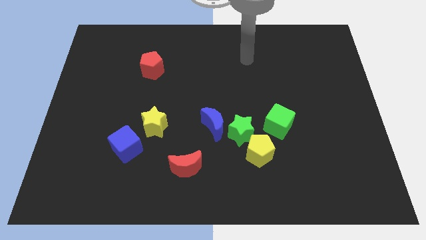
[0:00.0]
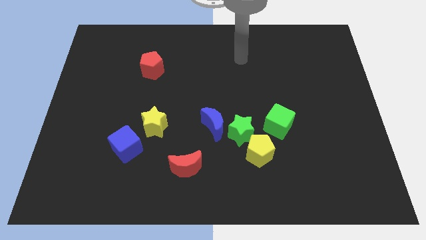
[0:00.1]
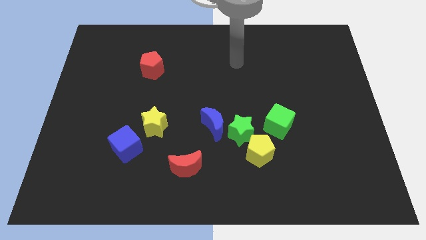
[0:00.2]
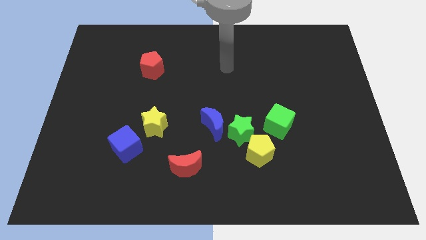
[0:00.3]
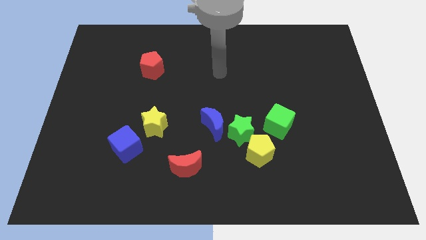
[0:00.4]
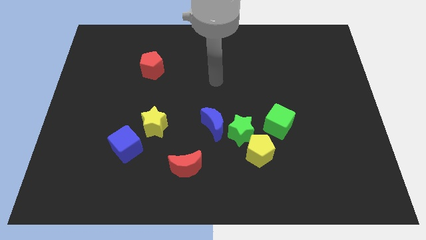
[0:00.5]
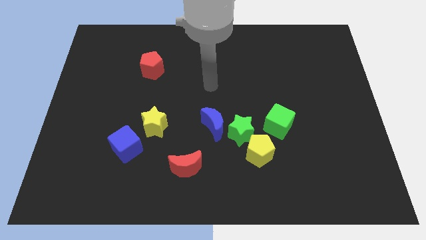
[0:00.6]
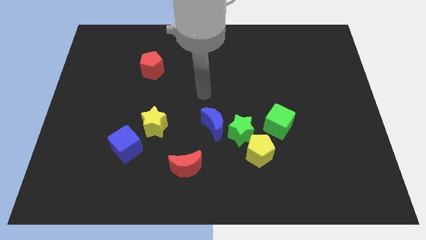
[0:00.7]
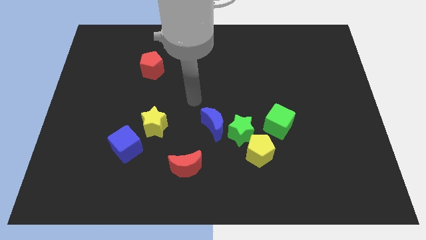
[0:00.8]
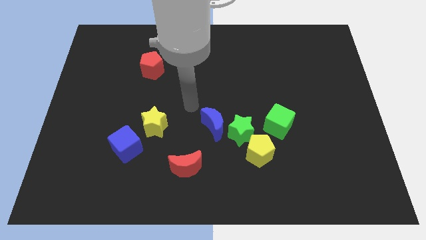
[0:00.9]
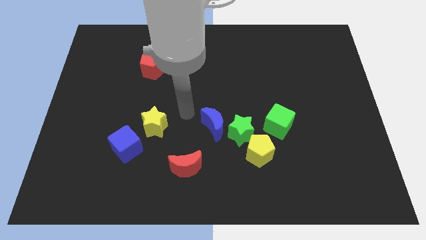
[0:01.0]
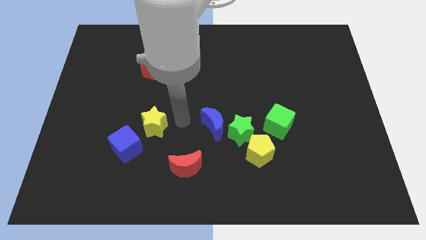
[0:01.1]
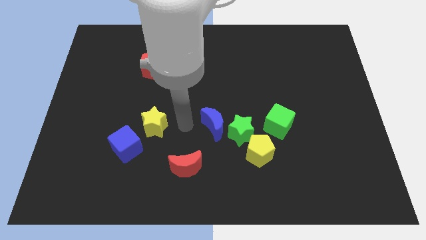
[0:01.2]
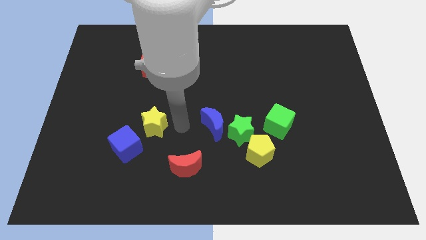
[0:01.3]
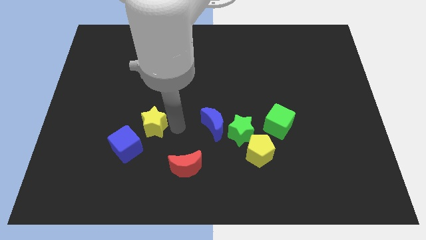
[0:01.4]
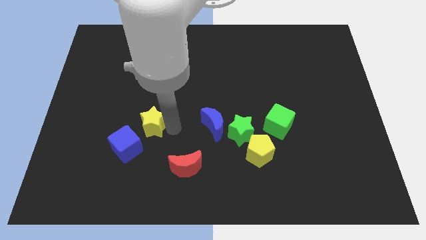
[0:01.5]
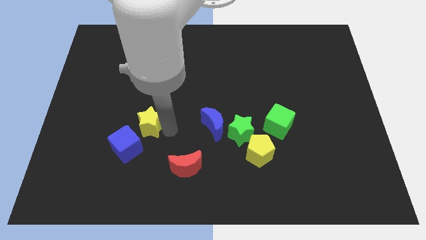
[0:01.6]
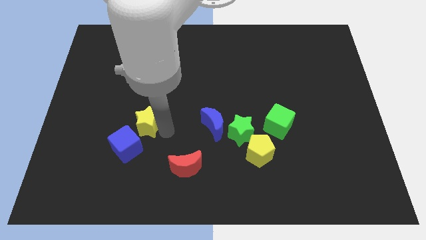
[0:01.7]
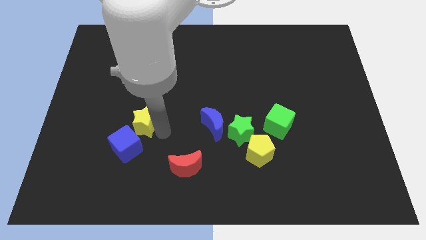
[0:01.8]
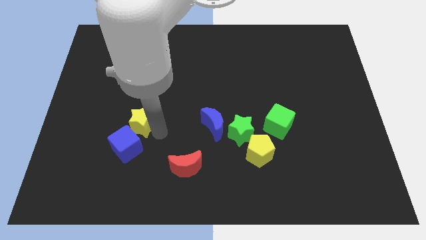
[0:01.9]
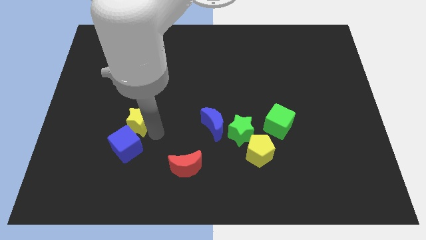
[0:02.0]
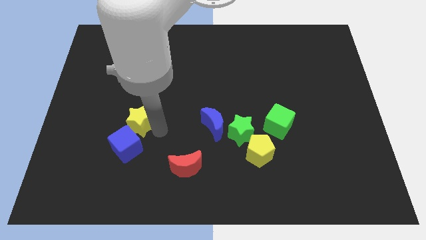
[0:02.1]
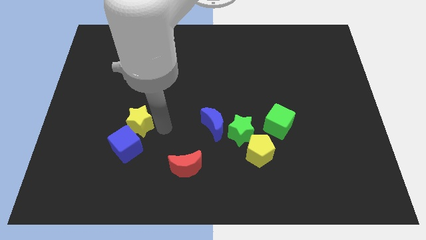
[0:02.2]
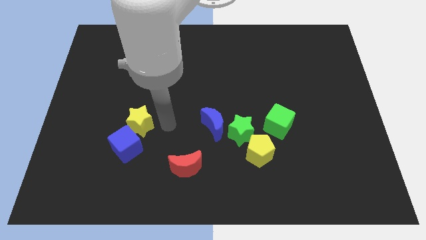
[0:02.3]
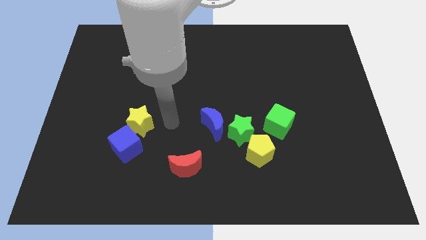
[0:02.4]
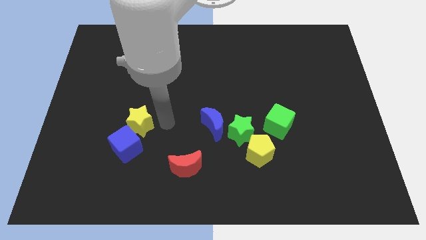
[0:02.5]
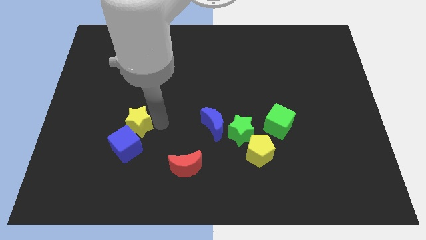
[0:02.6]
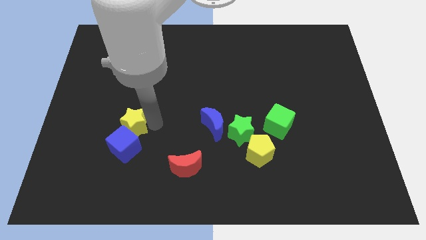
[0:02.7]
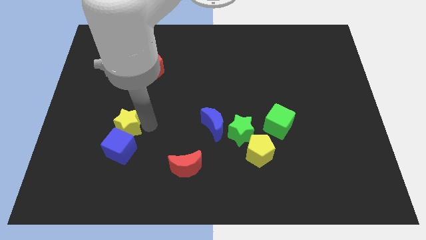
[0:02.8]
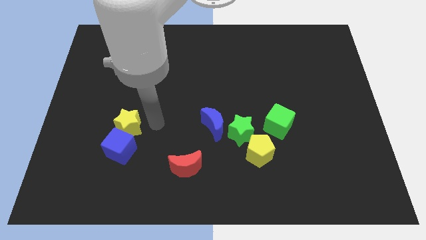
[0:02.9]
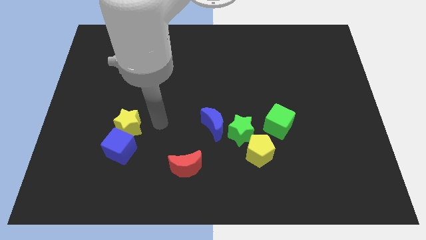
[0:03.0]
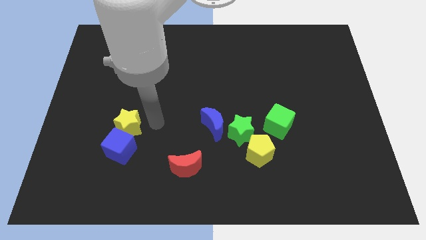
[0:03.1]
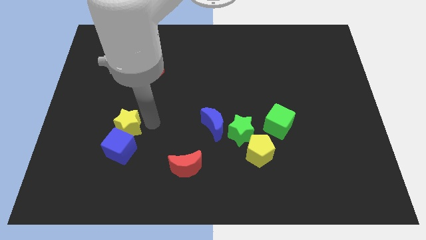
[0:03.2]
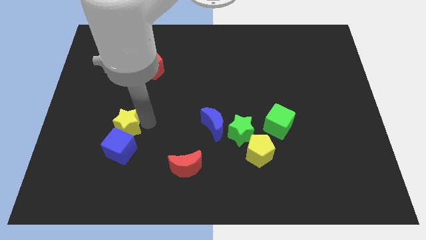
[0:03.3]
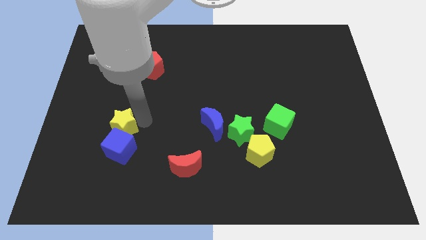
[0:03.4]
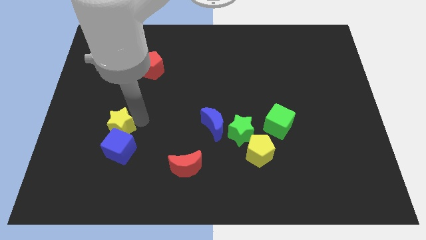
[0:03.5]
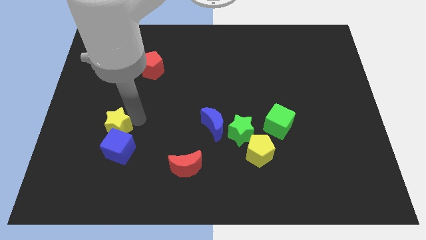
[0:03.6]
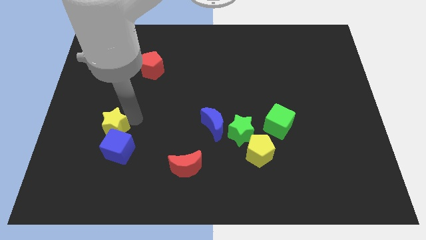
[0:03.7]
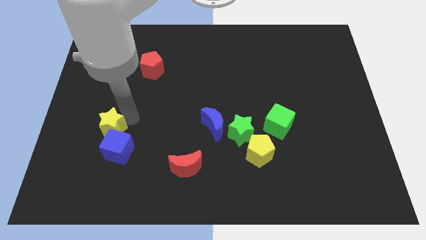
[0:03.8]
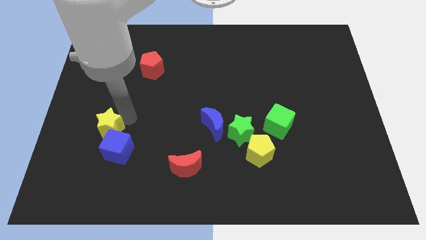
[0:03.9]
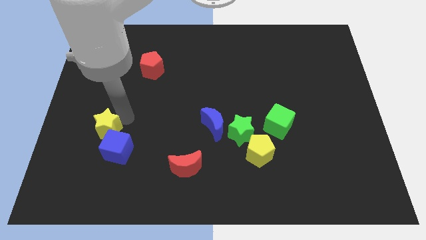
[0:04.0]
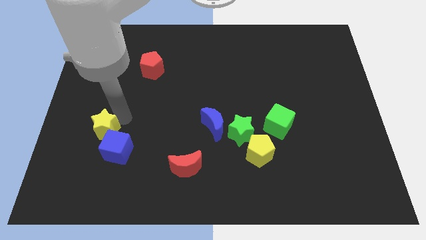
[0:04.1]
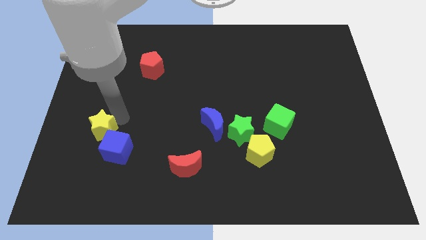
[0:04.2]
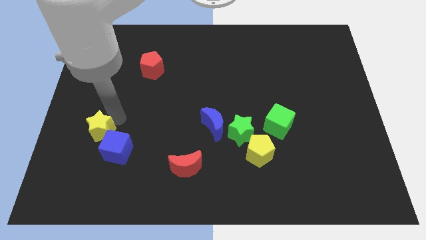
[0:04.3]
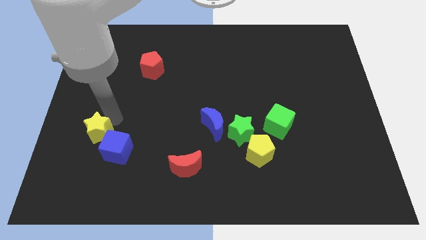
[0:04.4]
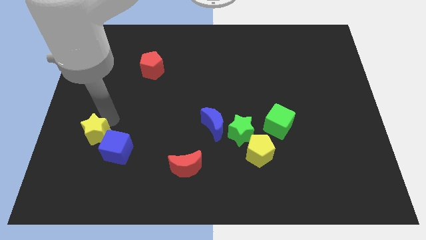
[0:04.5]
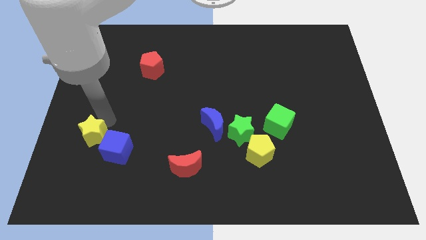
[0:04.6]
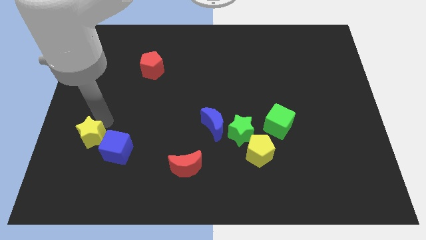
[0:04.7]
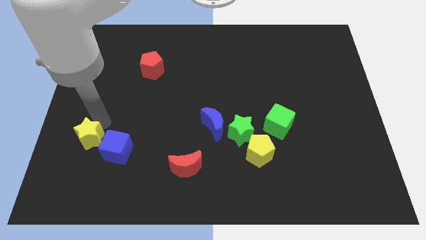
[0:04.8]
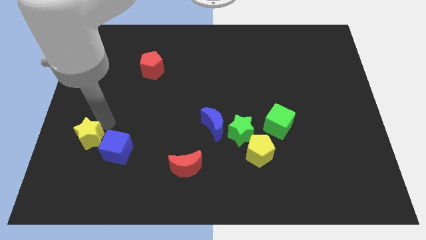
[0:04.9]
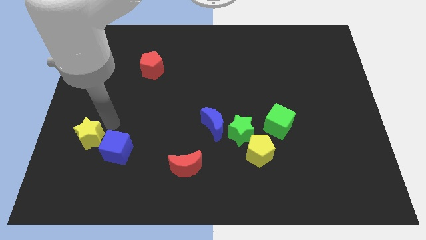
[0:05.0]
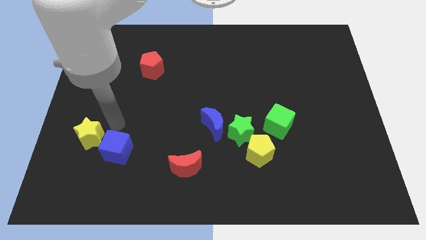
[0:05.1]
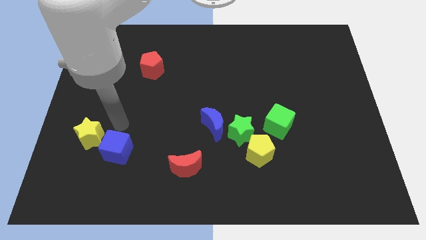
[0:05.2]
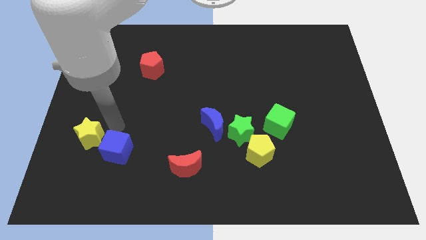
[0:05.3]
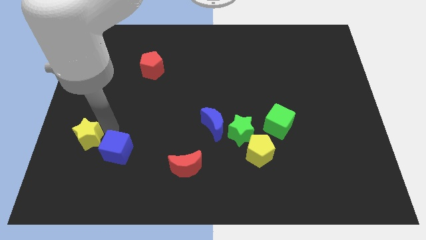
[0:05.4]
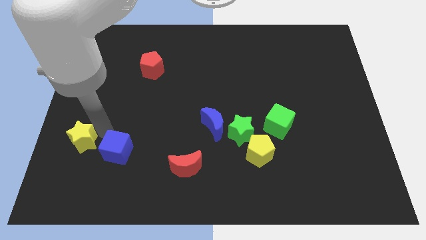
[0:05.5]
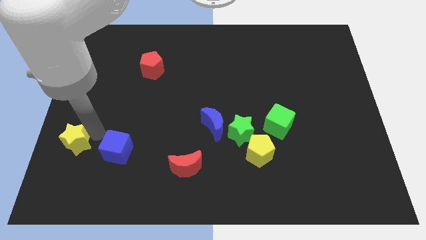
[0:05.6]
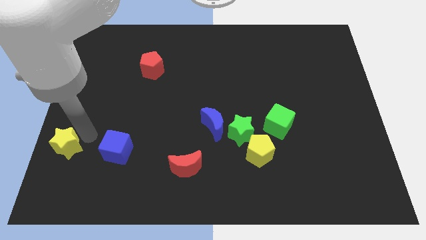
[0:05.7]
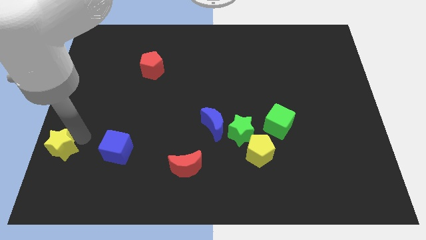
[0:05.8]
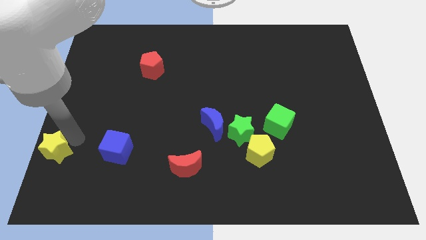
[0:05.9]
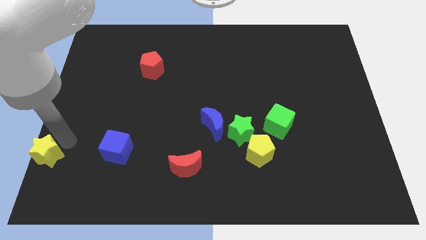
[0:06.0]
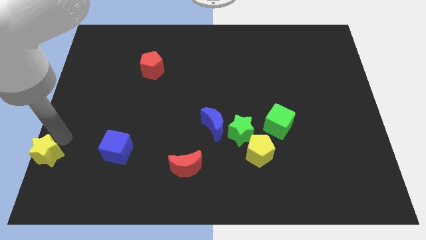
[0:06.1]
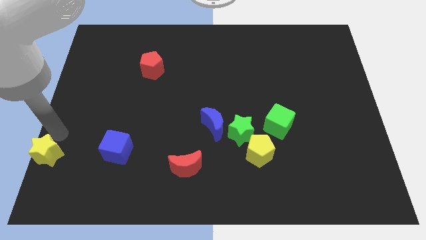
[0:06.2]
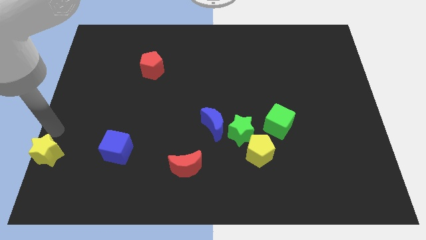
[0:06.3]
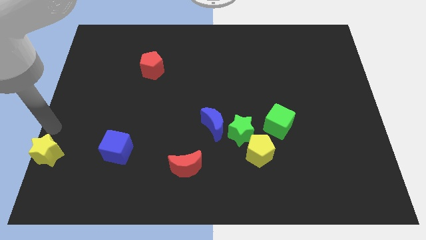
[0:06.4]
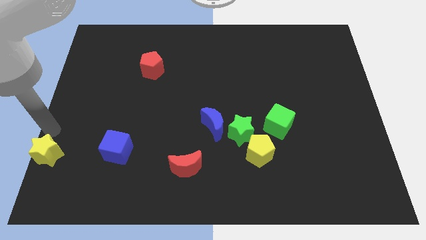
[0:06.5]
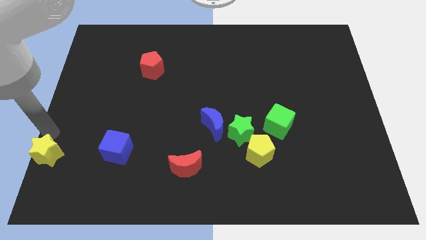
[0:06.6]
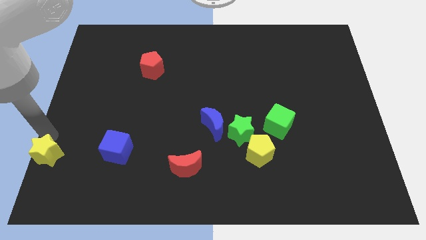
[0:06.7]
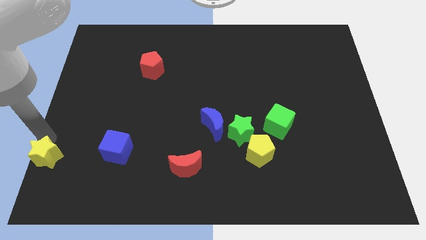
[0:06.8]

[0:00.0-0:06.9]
put the yellow star to the bottom left corner
